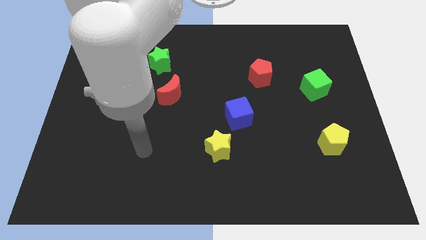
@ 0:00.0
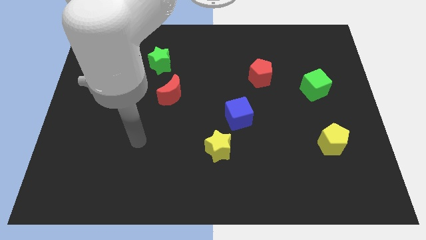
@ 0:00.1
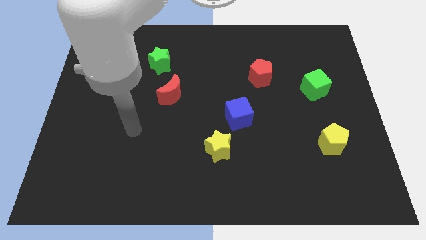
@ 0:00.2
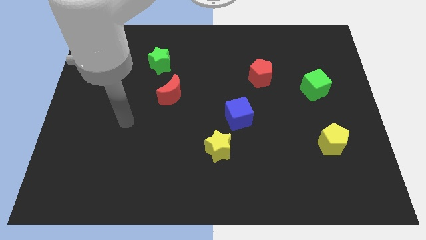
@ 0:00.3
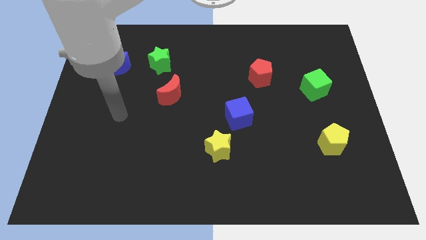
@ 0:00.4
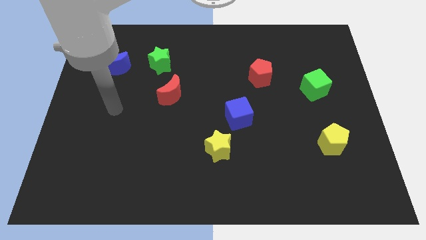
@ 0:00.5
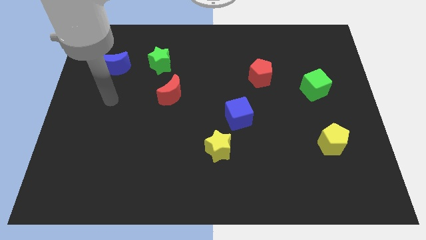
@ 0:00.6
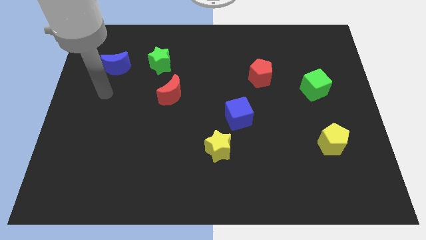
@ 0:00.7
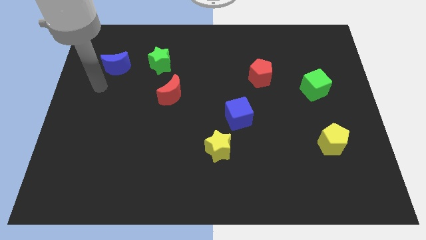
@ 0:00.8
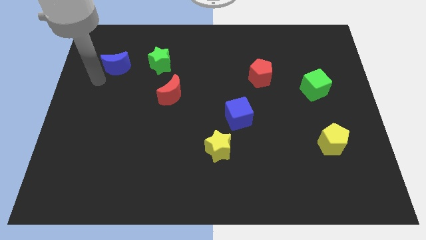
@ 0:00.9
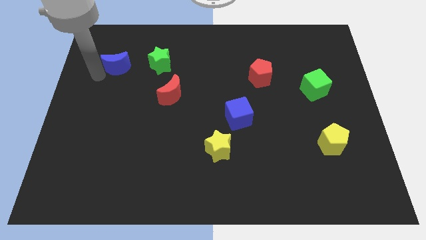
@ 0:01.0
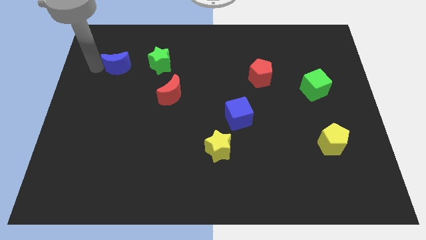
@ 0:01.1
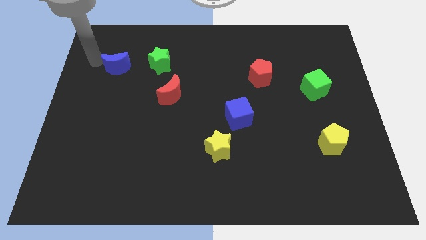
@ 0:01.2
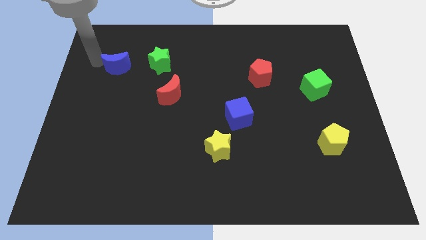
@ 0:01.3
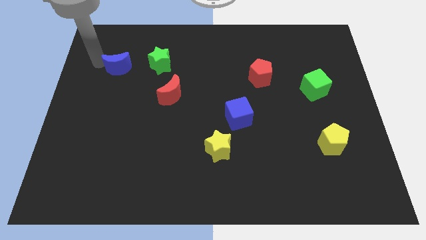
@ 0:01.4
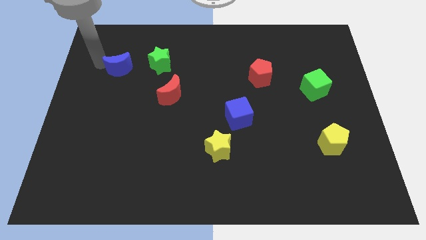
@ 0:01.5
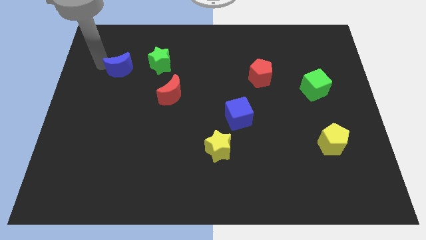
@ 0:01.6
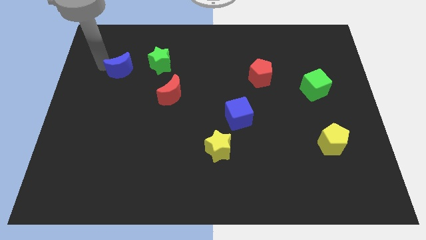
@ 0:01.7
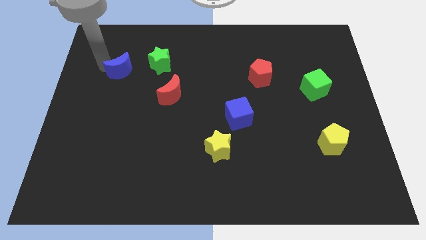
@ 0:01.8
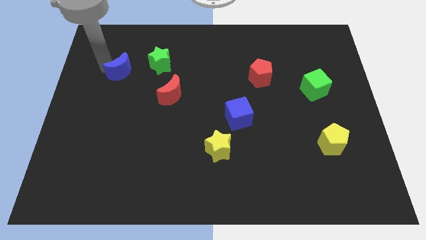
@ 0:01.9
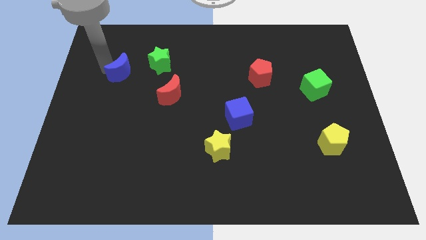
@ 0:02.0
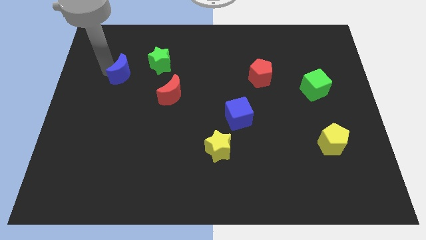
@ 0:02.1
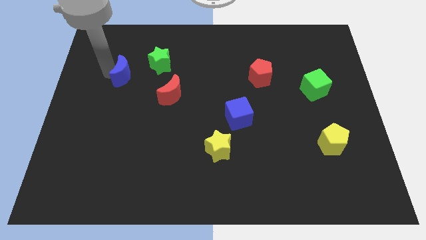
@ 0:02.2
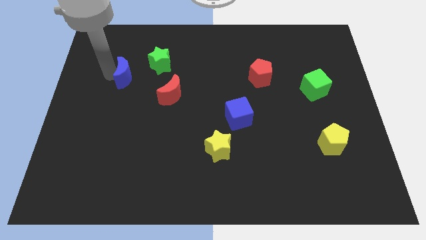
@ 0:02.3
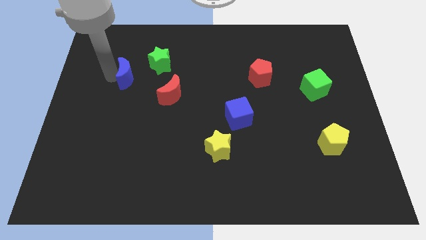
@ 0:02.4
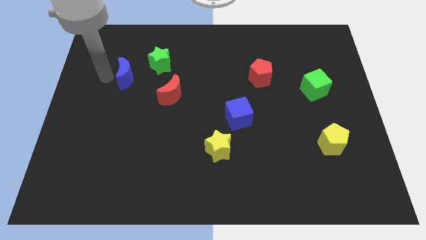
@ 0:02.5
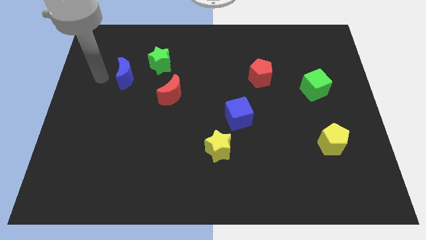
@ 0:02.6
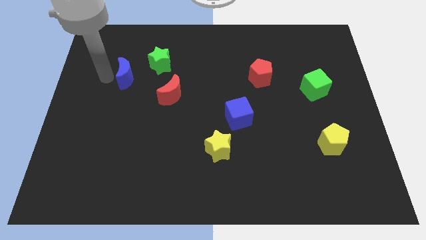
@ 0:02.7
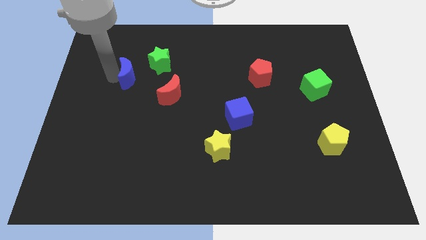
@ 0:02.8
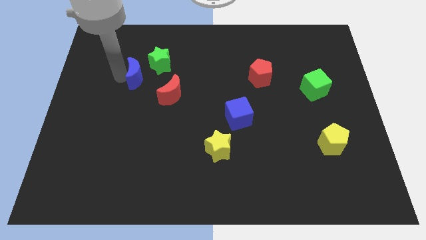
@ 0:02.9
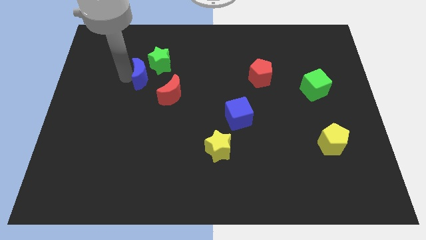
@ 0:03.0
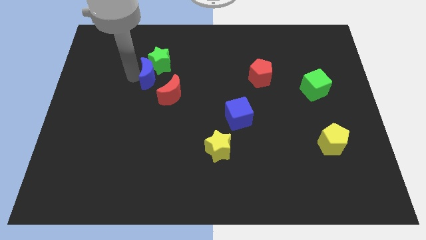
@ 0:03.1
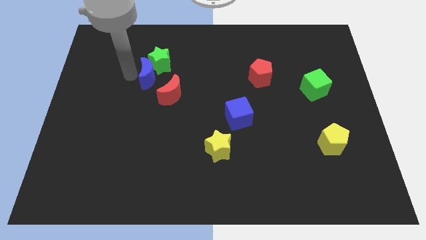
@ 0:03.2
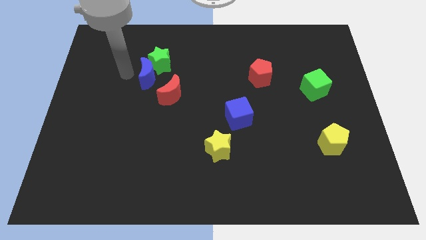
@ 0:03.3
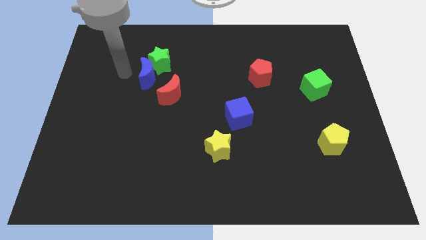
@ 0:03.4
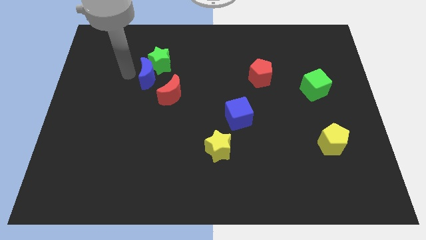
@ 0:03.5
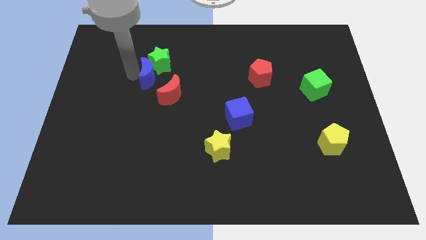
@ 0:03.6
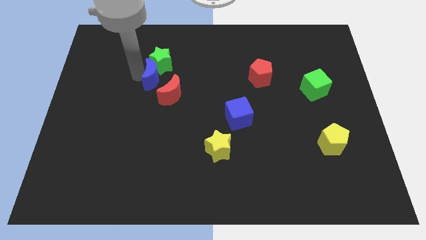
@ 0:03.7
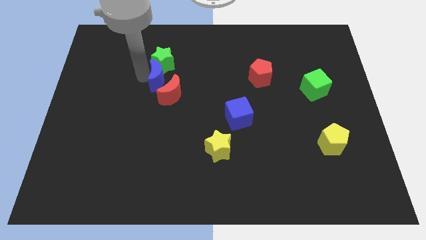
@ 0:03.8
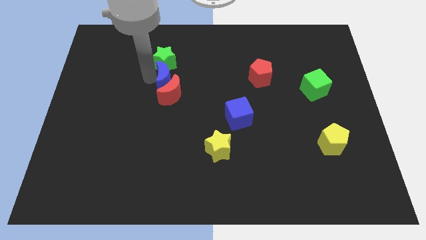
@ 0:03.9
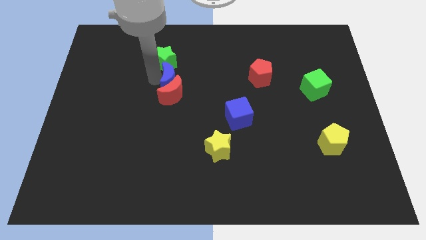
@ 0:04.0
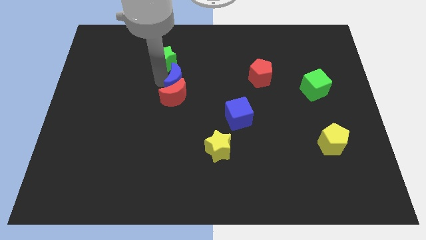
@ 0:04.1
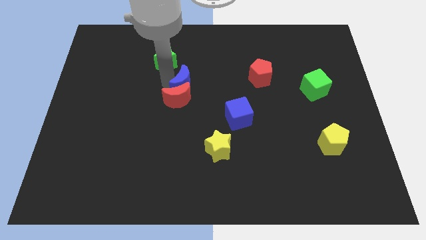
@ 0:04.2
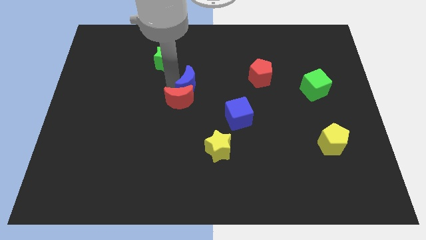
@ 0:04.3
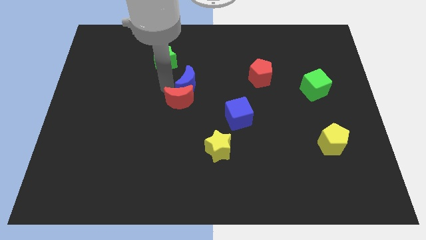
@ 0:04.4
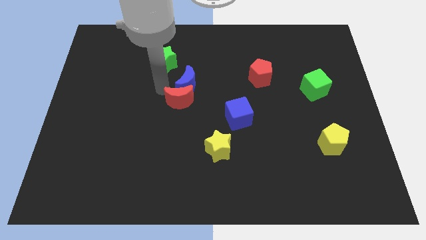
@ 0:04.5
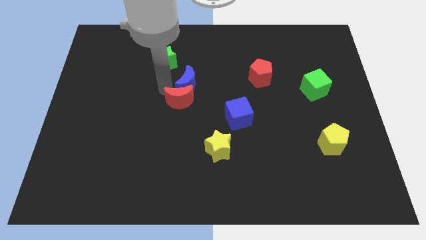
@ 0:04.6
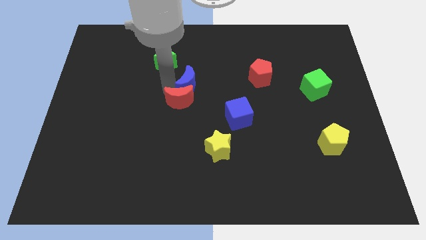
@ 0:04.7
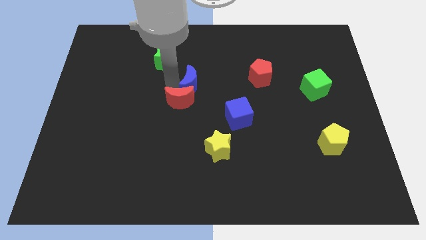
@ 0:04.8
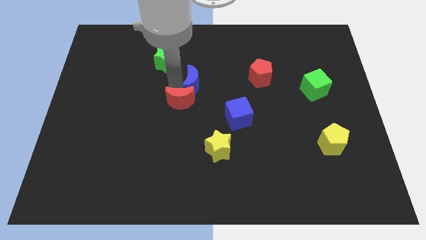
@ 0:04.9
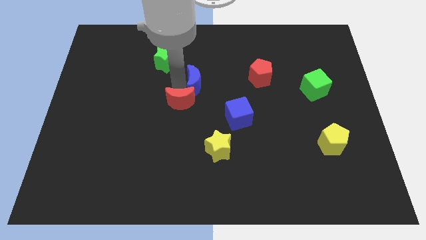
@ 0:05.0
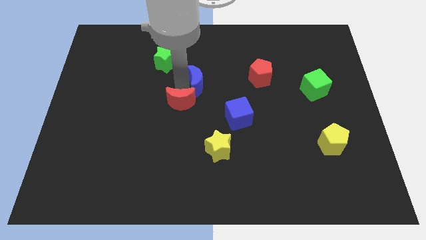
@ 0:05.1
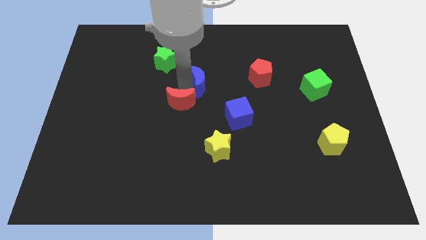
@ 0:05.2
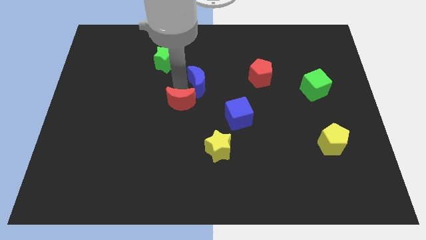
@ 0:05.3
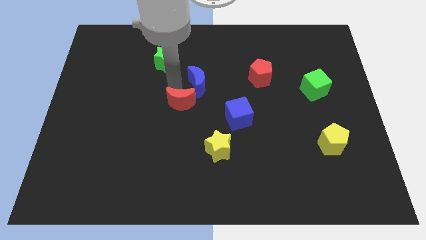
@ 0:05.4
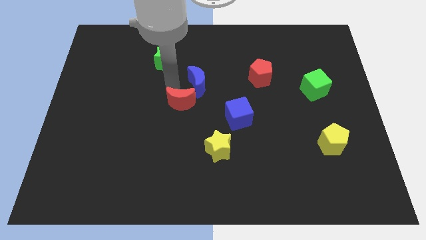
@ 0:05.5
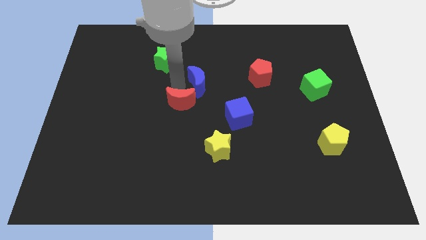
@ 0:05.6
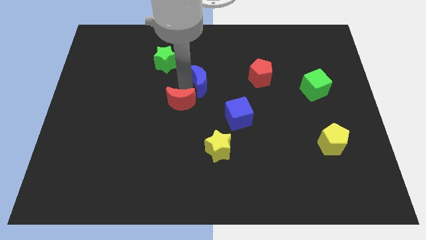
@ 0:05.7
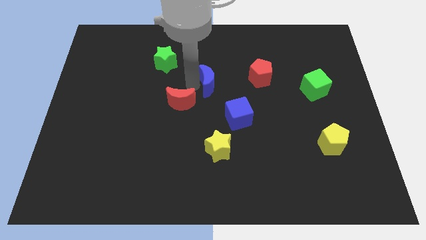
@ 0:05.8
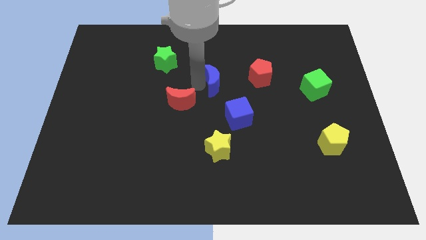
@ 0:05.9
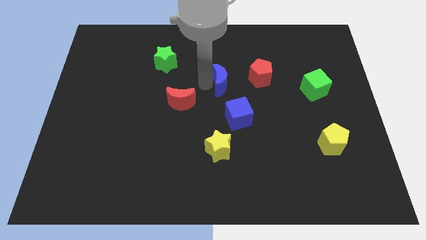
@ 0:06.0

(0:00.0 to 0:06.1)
push the blue moon above the blue cube

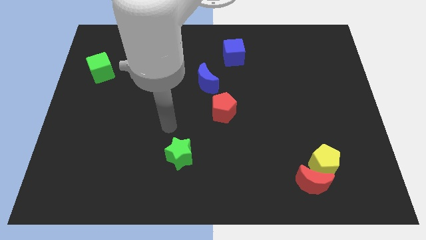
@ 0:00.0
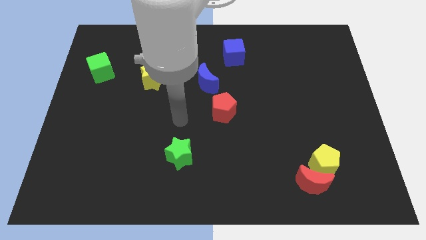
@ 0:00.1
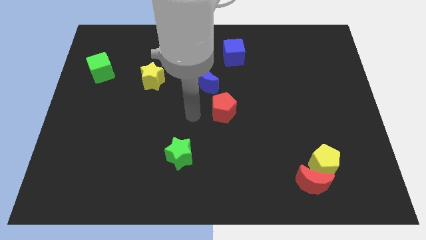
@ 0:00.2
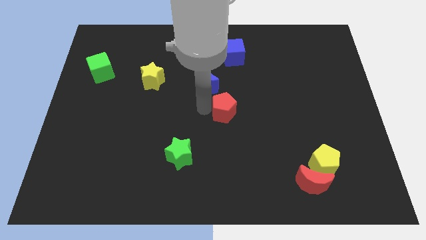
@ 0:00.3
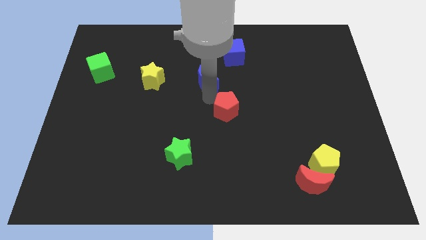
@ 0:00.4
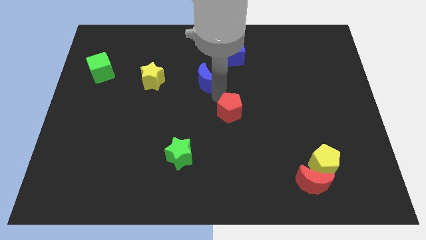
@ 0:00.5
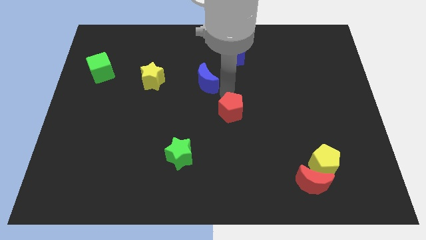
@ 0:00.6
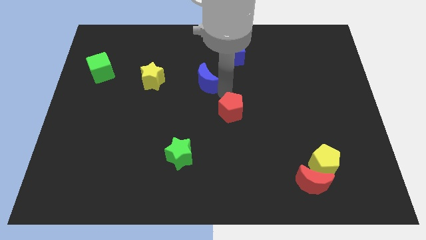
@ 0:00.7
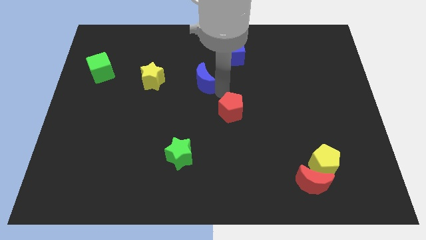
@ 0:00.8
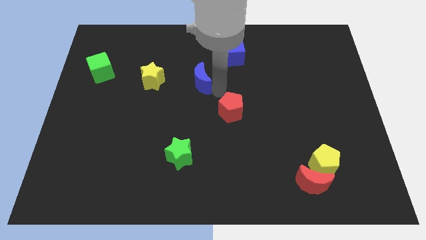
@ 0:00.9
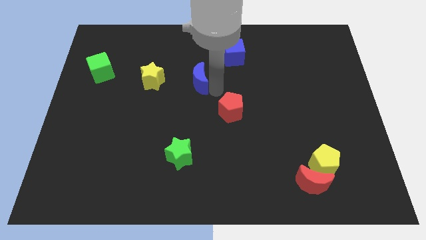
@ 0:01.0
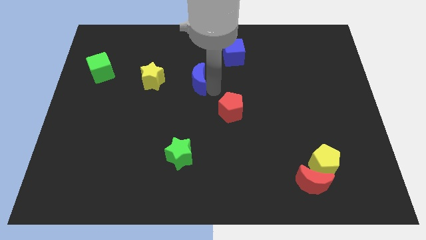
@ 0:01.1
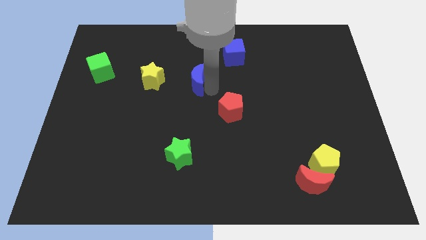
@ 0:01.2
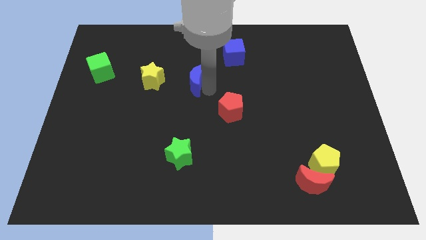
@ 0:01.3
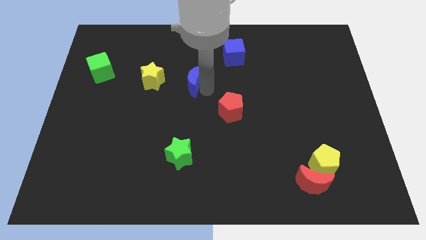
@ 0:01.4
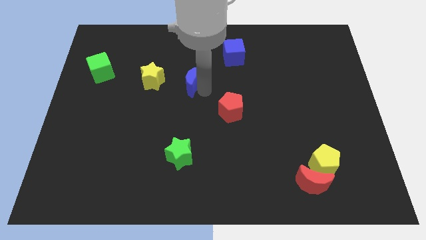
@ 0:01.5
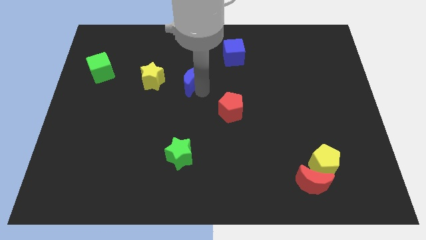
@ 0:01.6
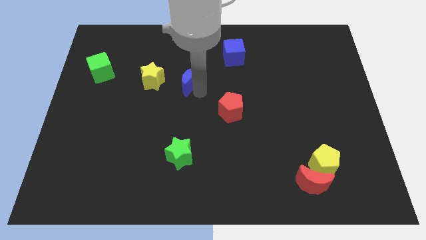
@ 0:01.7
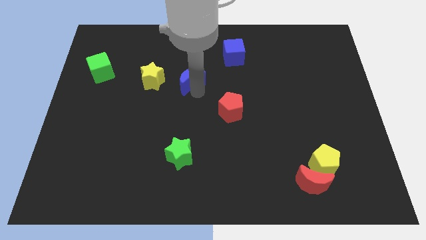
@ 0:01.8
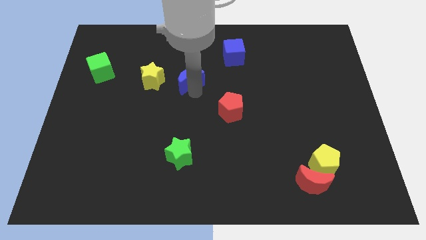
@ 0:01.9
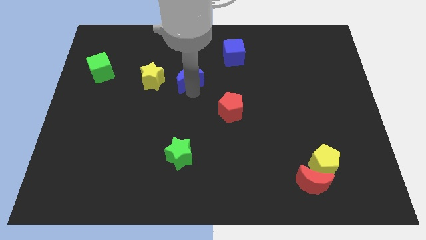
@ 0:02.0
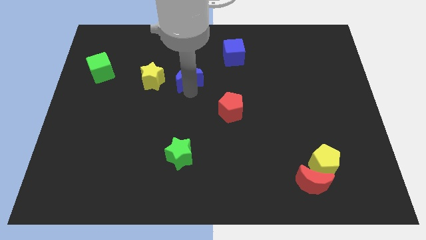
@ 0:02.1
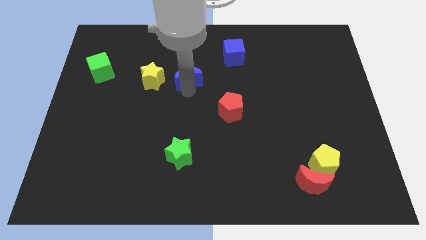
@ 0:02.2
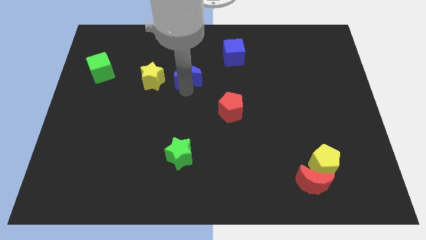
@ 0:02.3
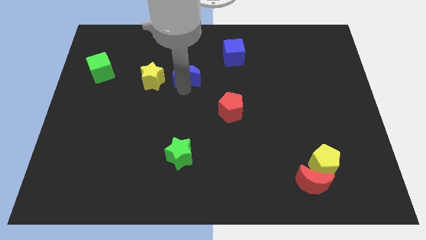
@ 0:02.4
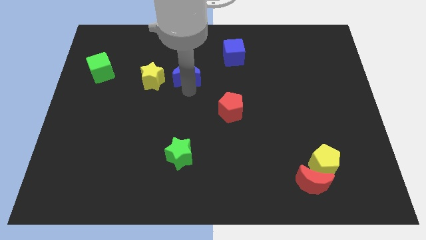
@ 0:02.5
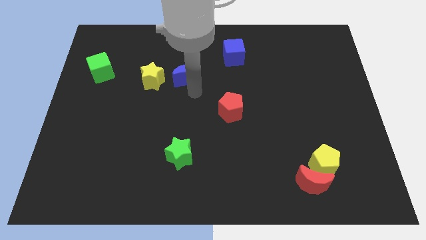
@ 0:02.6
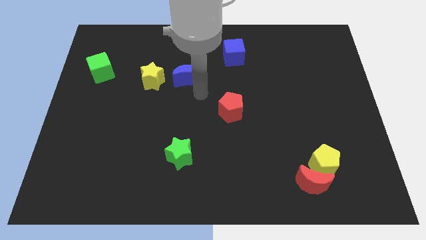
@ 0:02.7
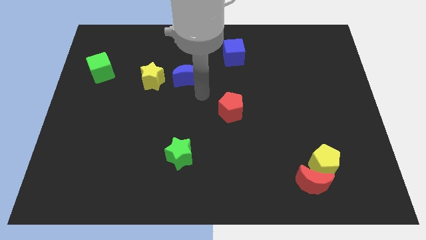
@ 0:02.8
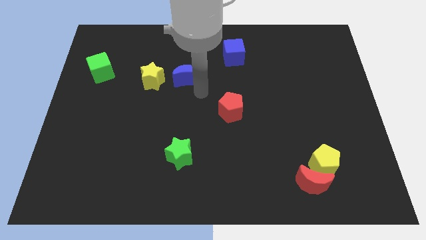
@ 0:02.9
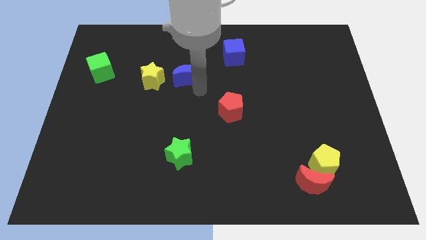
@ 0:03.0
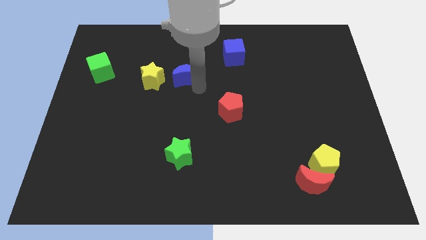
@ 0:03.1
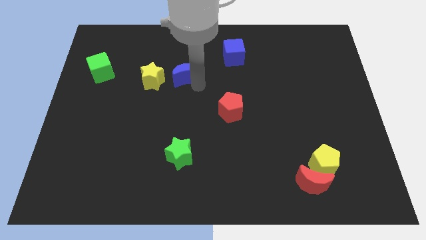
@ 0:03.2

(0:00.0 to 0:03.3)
put the blue moon to the top right of the yellow star
